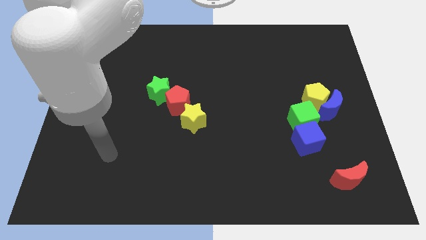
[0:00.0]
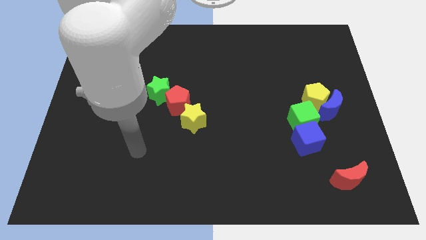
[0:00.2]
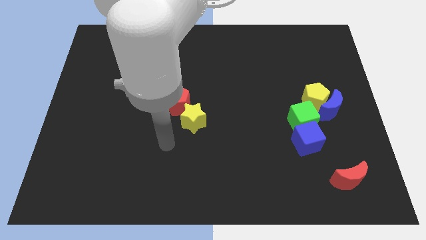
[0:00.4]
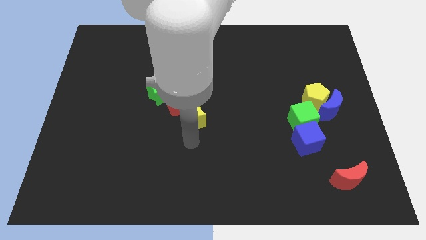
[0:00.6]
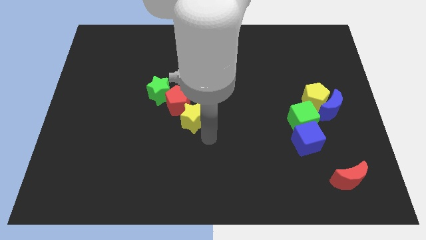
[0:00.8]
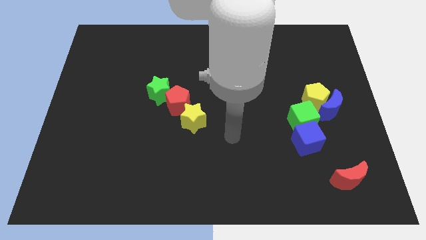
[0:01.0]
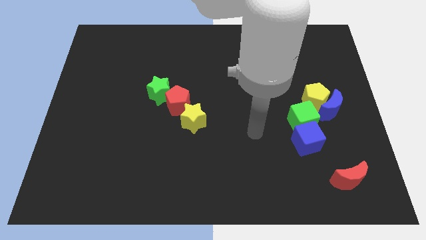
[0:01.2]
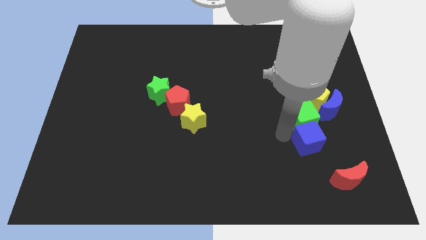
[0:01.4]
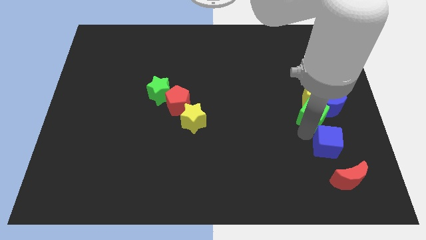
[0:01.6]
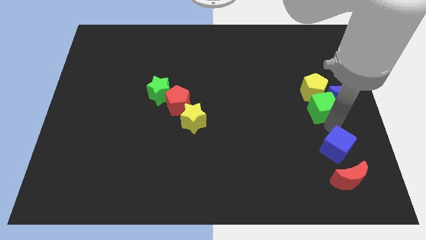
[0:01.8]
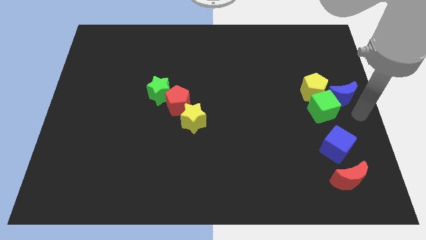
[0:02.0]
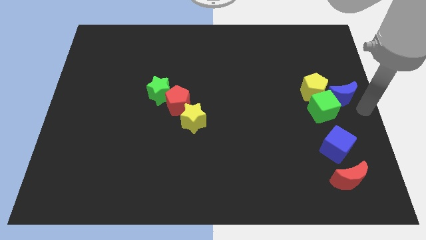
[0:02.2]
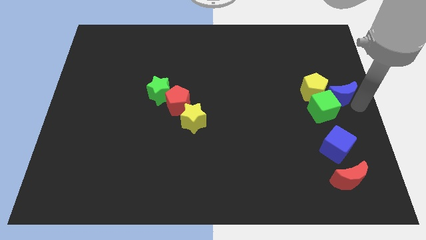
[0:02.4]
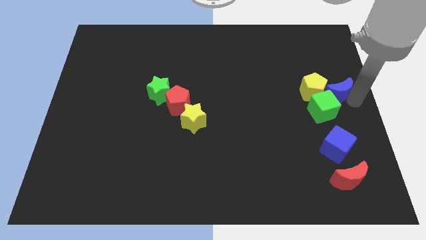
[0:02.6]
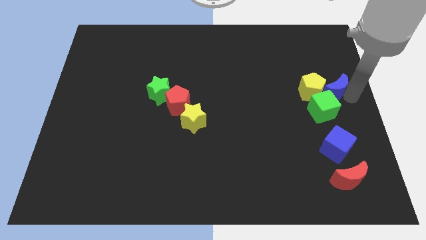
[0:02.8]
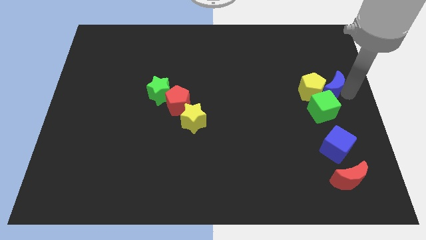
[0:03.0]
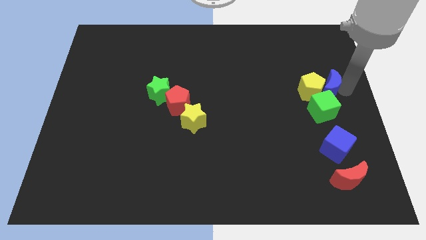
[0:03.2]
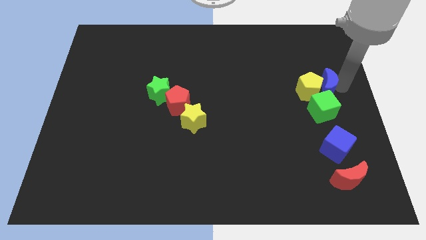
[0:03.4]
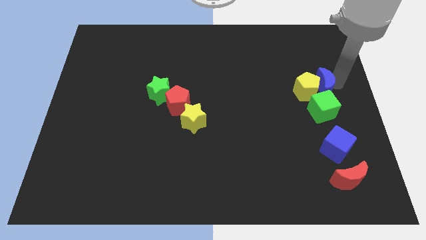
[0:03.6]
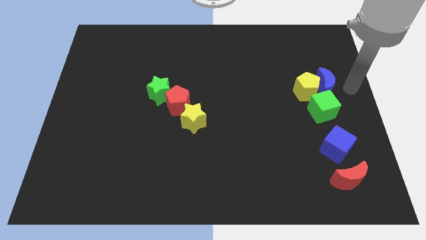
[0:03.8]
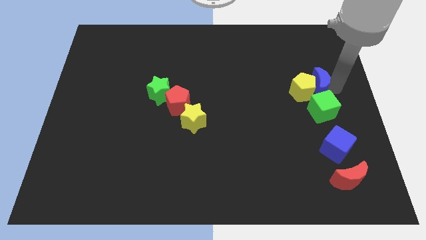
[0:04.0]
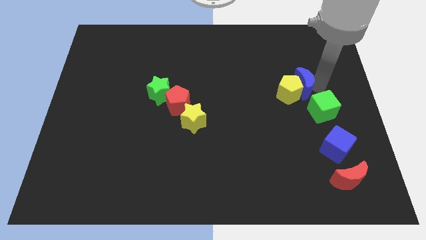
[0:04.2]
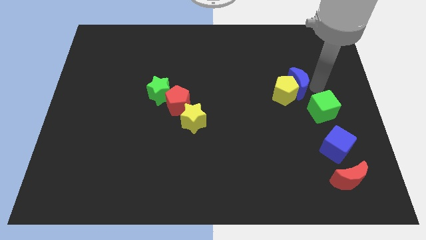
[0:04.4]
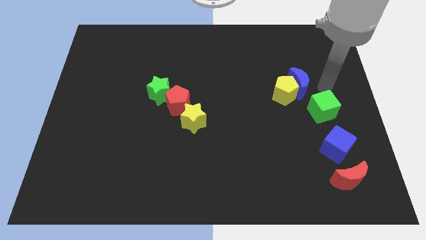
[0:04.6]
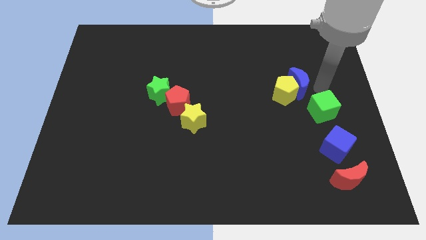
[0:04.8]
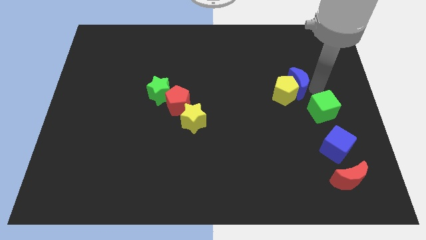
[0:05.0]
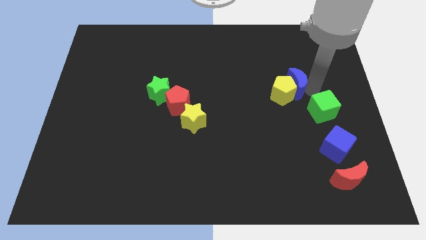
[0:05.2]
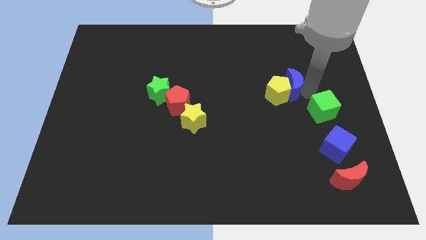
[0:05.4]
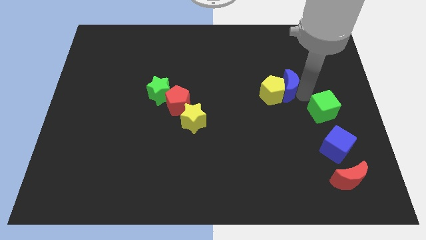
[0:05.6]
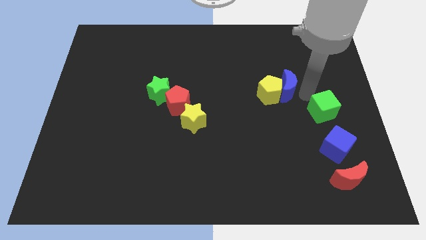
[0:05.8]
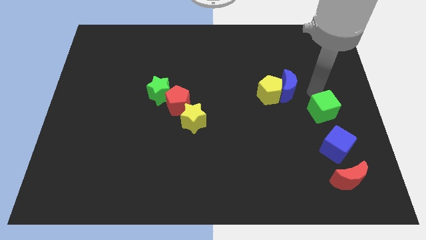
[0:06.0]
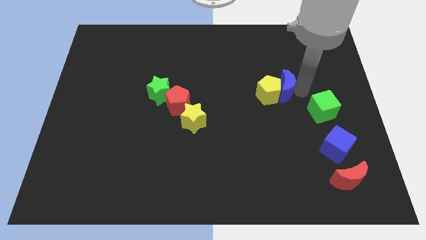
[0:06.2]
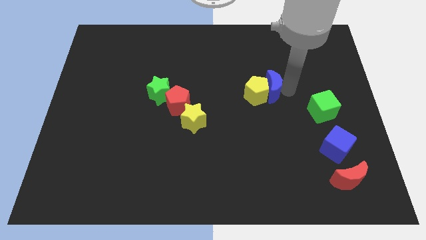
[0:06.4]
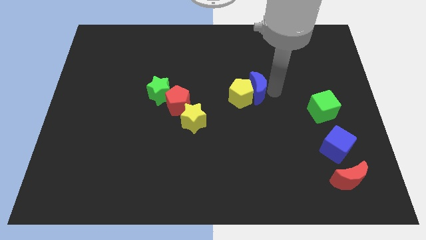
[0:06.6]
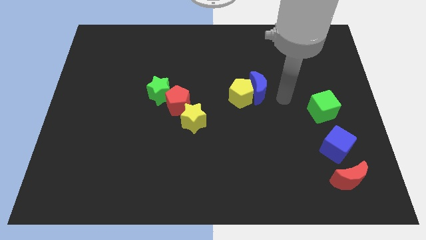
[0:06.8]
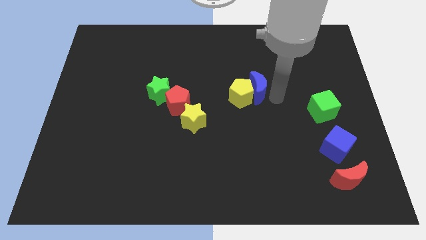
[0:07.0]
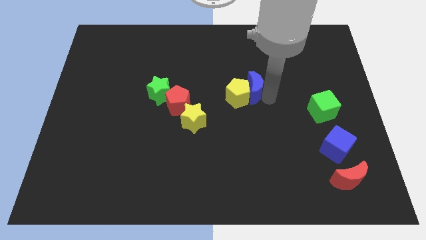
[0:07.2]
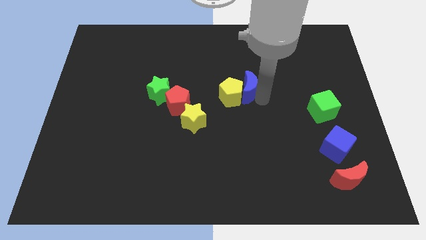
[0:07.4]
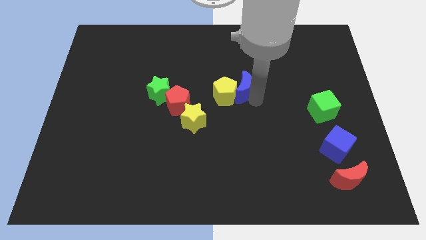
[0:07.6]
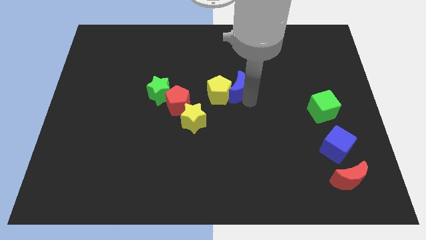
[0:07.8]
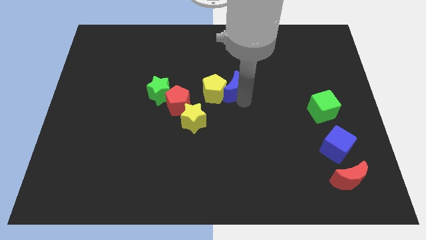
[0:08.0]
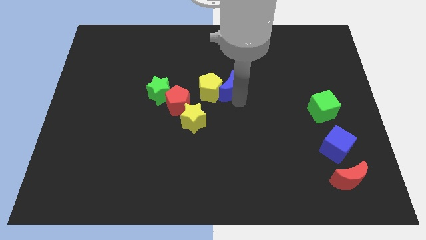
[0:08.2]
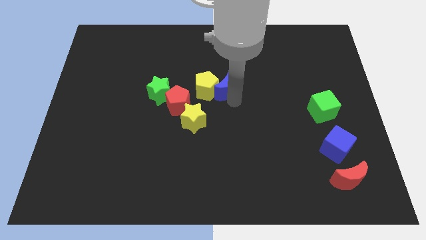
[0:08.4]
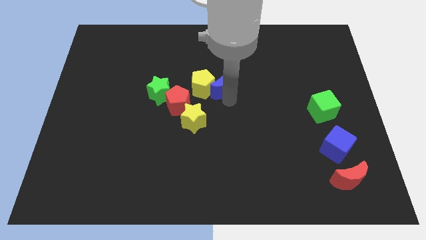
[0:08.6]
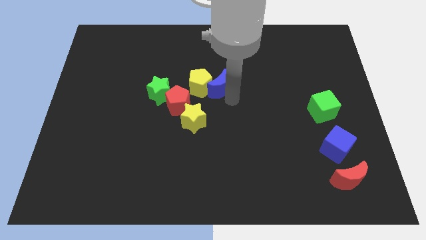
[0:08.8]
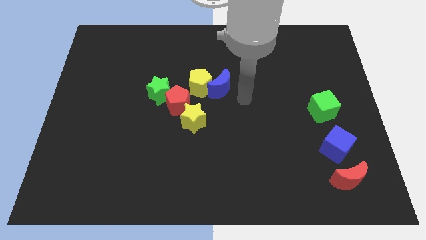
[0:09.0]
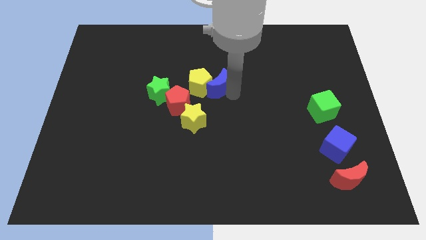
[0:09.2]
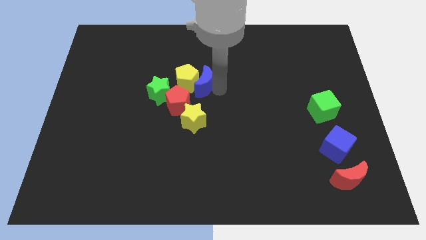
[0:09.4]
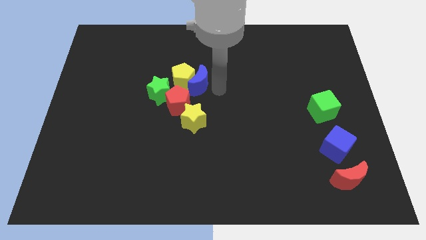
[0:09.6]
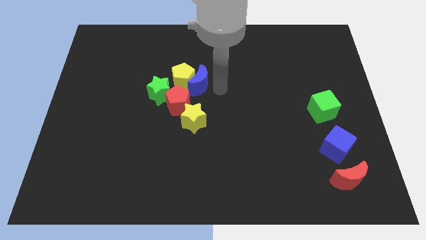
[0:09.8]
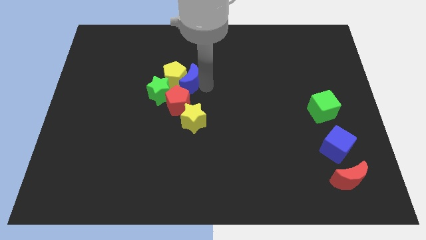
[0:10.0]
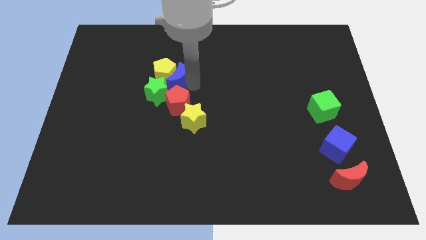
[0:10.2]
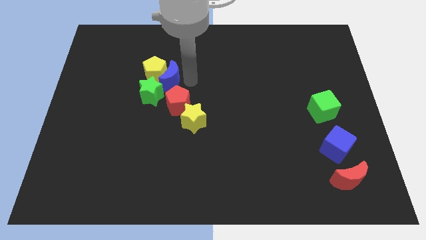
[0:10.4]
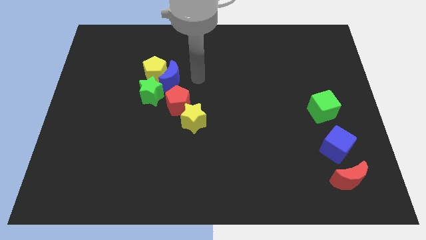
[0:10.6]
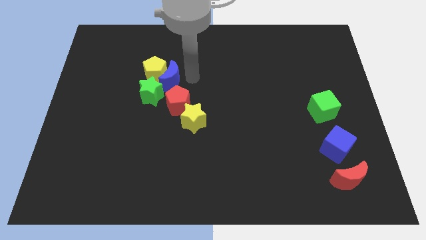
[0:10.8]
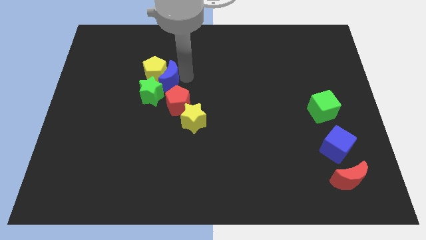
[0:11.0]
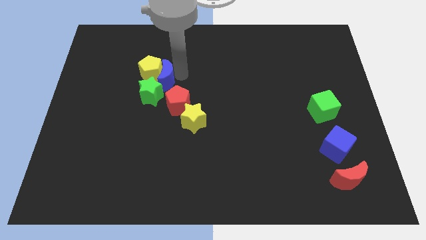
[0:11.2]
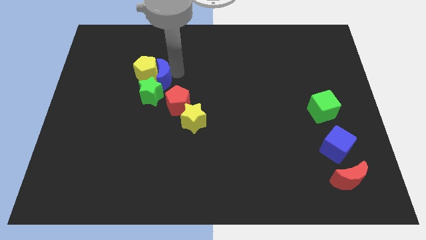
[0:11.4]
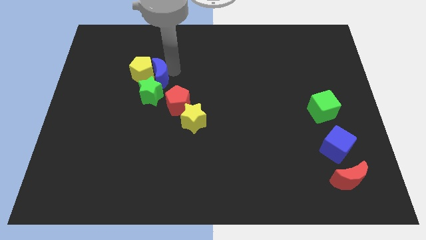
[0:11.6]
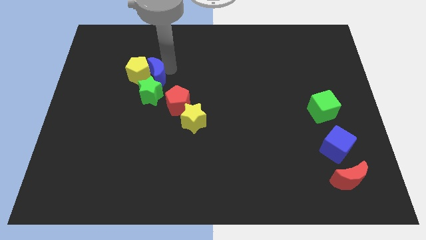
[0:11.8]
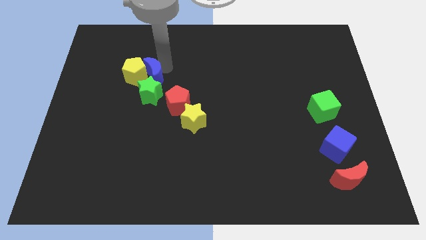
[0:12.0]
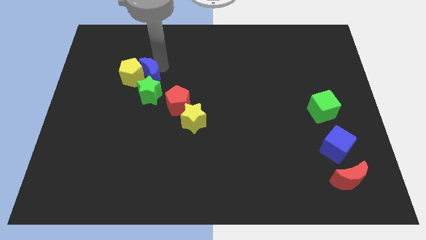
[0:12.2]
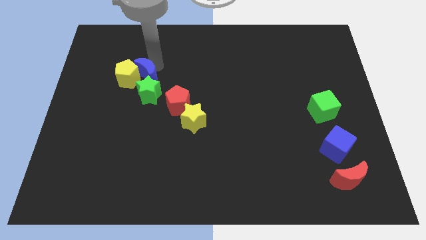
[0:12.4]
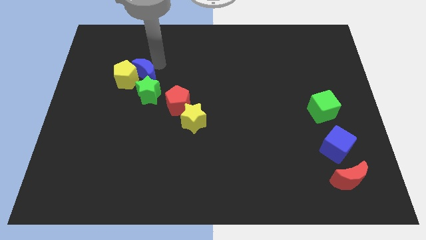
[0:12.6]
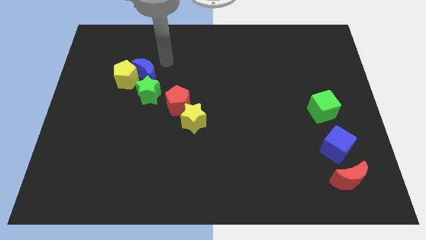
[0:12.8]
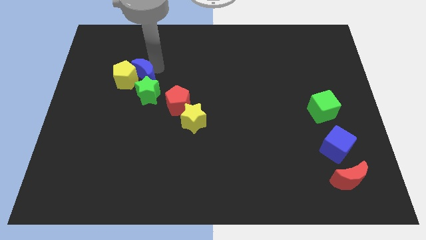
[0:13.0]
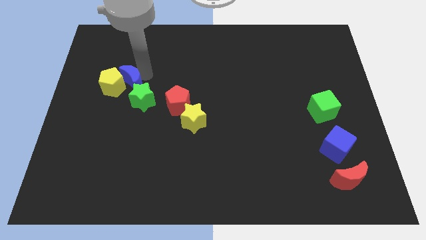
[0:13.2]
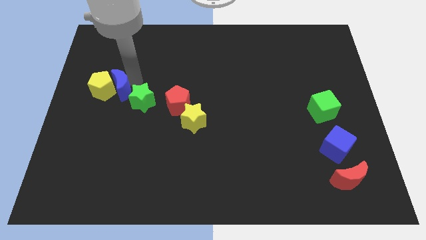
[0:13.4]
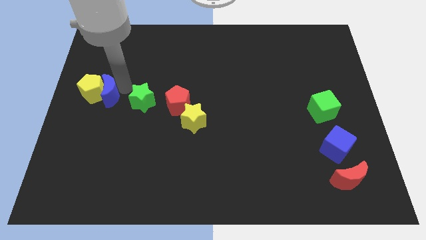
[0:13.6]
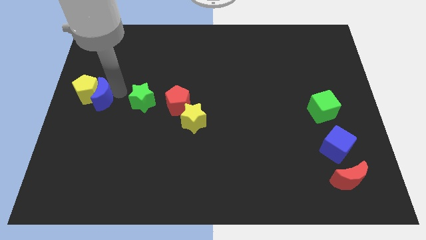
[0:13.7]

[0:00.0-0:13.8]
push the blue moon to the center left
